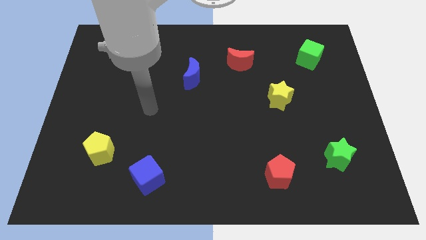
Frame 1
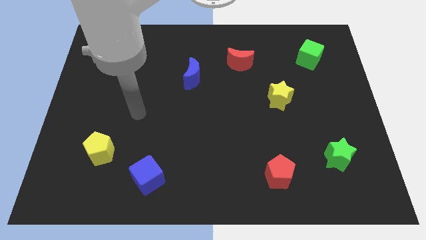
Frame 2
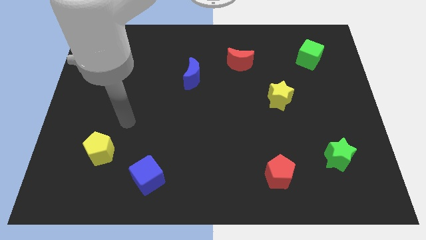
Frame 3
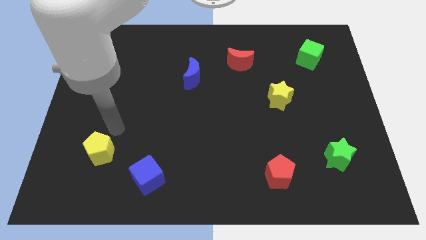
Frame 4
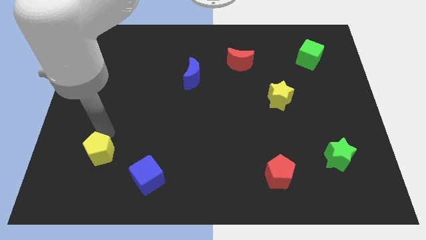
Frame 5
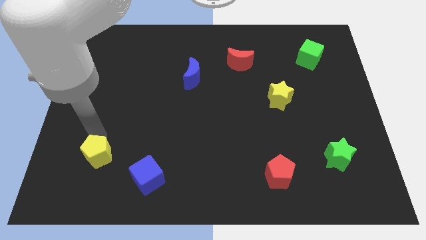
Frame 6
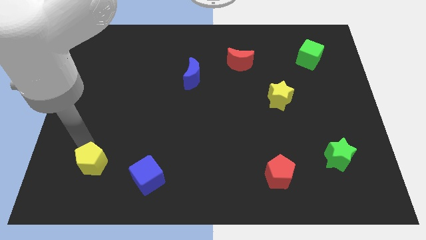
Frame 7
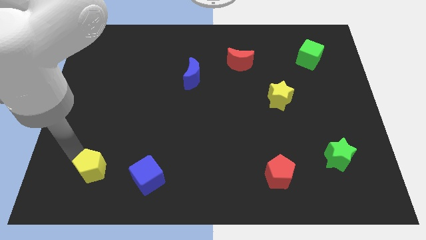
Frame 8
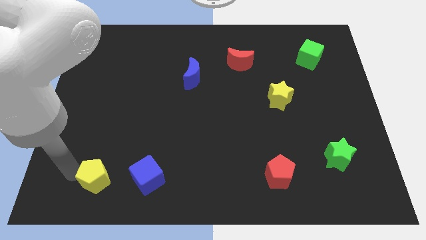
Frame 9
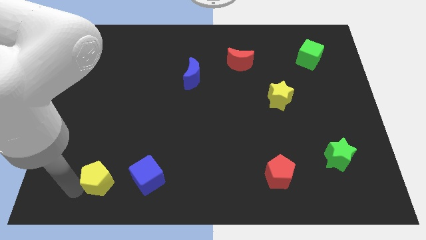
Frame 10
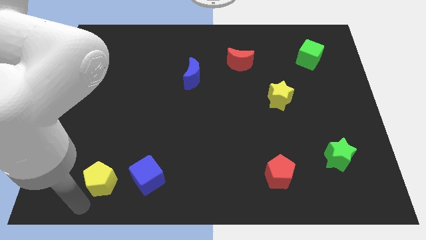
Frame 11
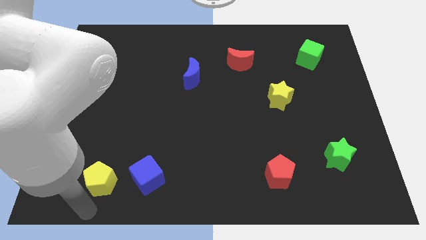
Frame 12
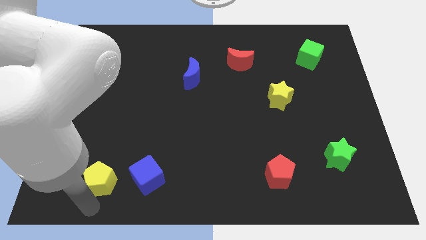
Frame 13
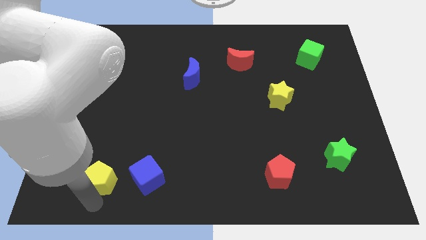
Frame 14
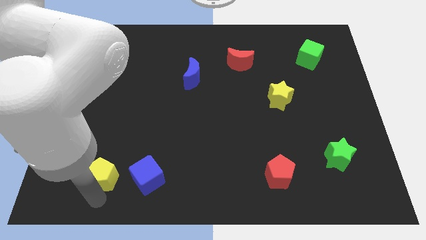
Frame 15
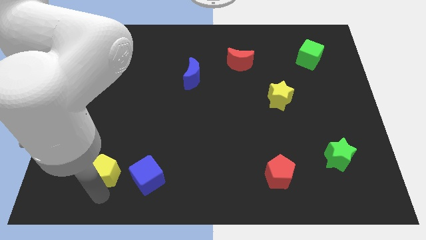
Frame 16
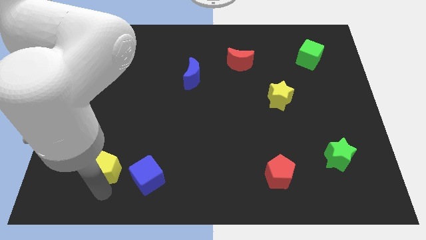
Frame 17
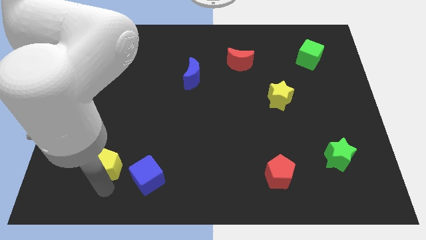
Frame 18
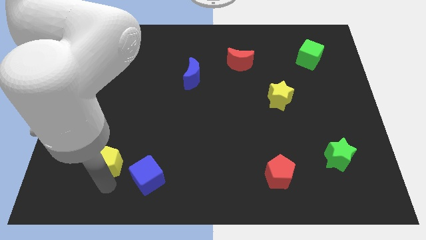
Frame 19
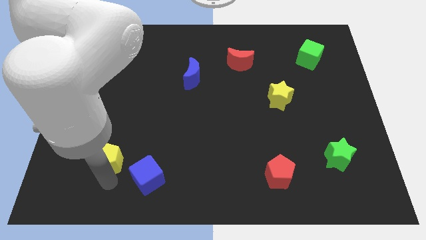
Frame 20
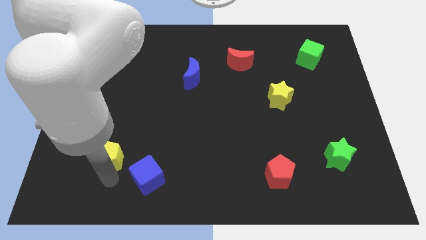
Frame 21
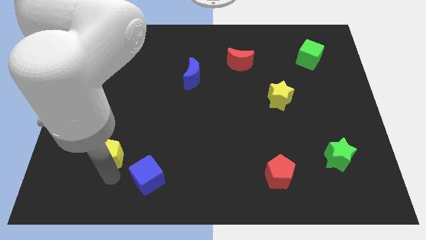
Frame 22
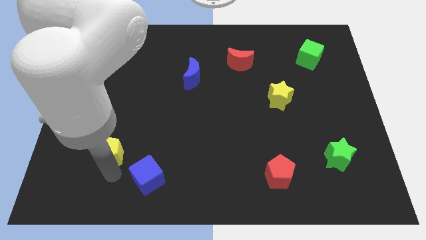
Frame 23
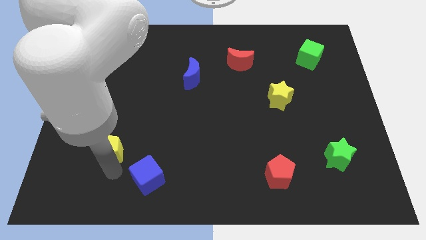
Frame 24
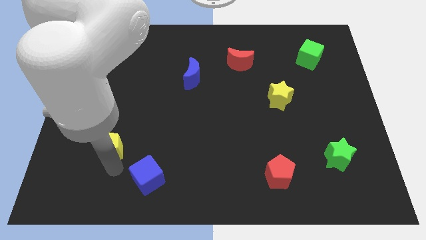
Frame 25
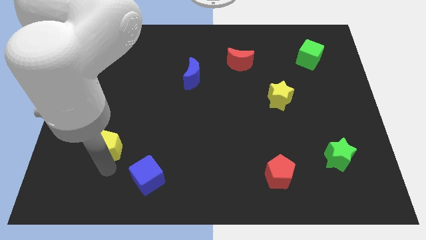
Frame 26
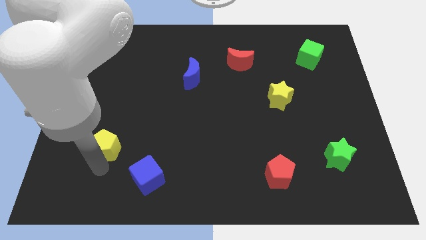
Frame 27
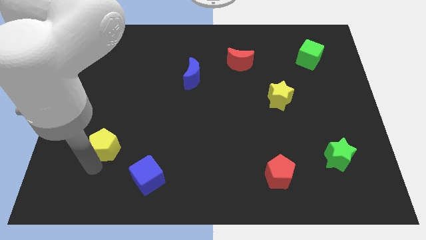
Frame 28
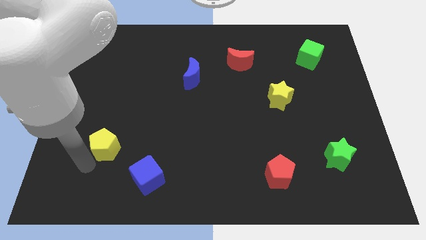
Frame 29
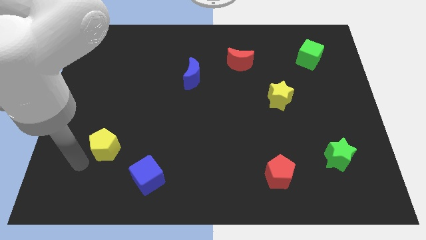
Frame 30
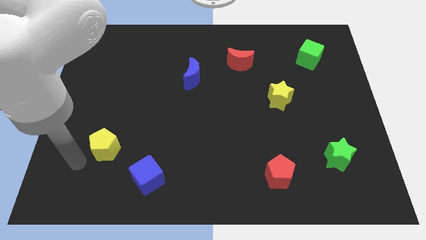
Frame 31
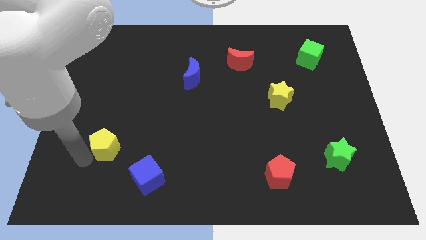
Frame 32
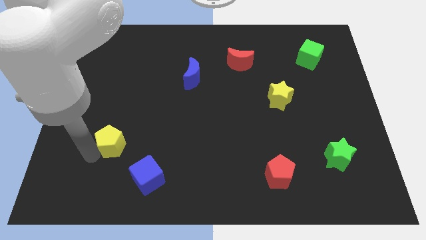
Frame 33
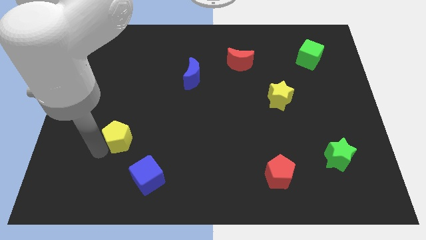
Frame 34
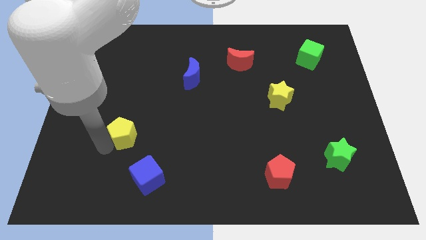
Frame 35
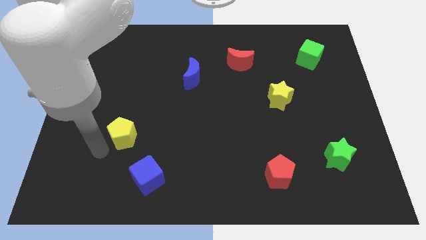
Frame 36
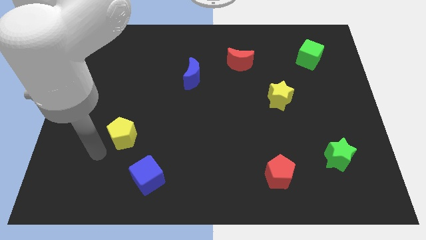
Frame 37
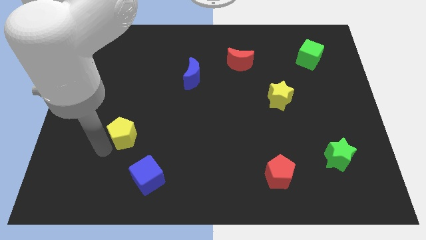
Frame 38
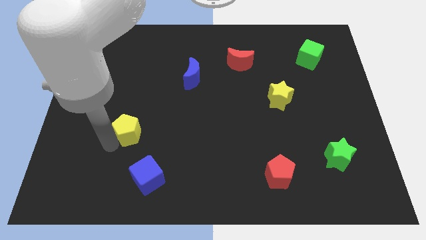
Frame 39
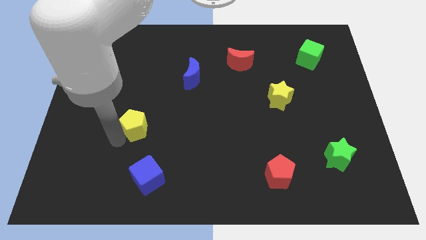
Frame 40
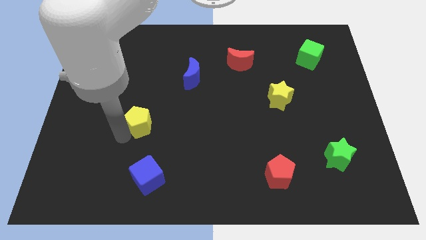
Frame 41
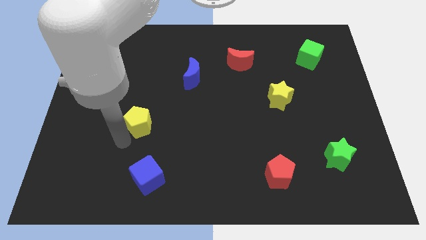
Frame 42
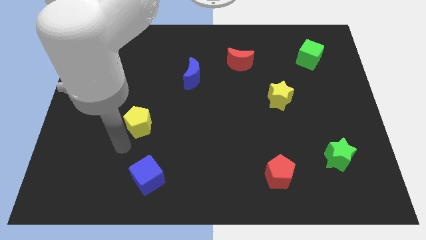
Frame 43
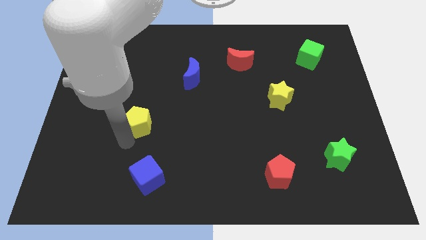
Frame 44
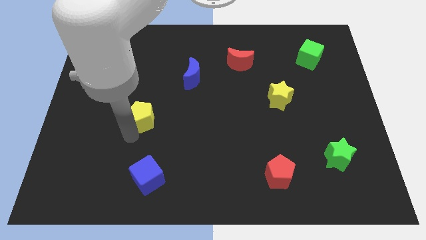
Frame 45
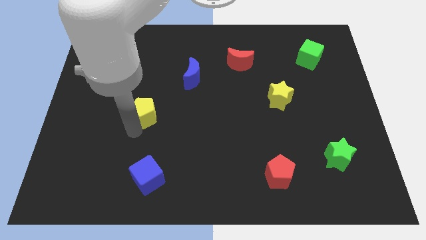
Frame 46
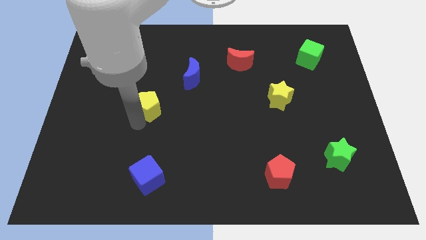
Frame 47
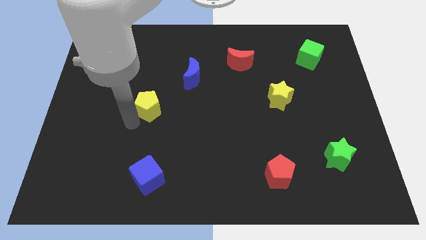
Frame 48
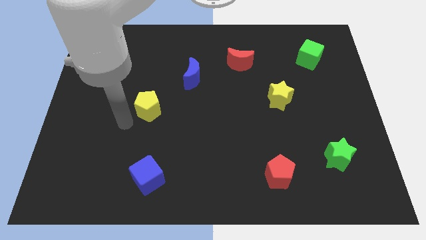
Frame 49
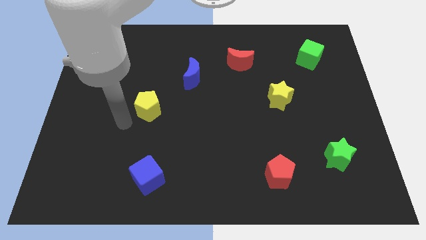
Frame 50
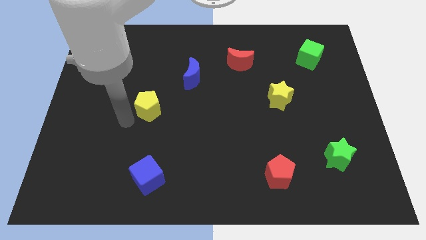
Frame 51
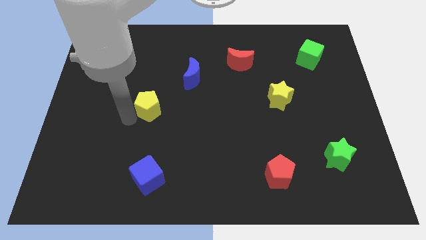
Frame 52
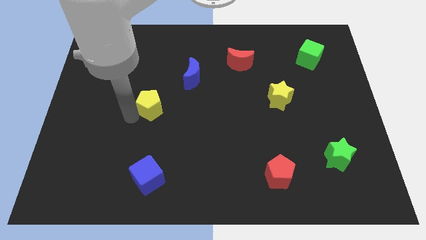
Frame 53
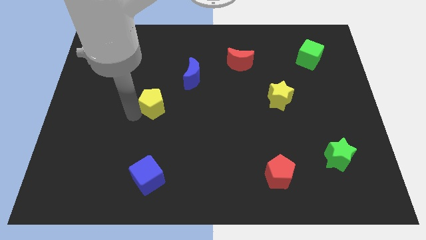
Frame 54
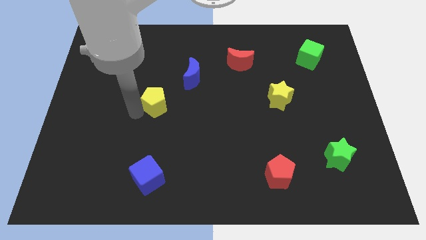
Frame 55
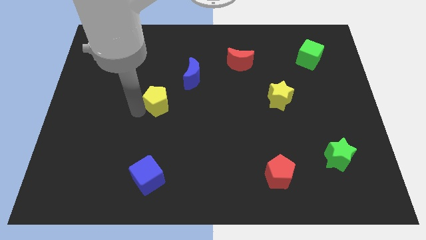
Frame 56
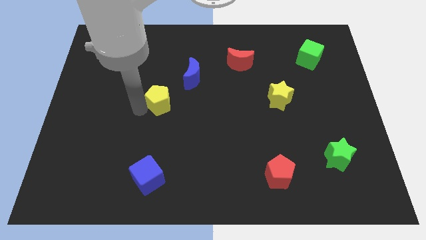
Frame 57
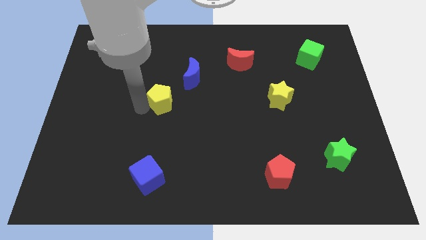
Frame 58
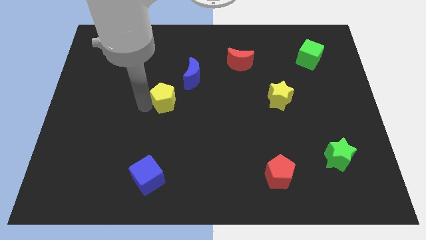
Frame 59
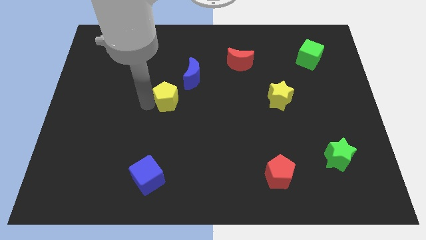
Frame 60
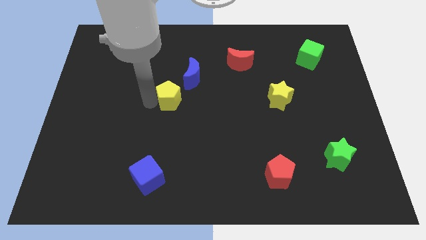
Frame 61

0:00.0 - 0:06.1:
slide the yellow pentagon diagonally up and right

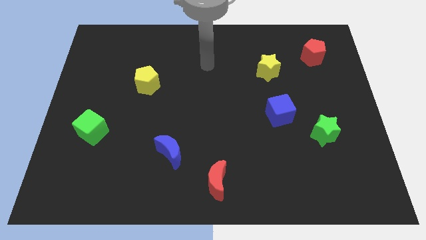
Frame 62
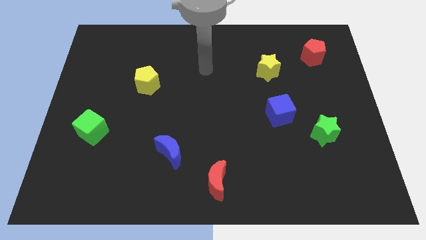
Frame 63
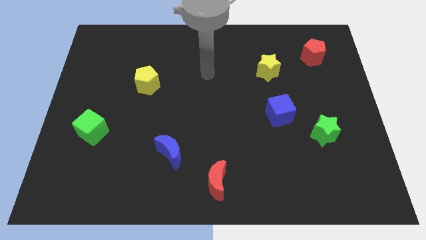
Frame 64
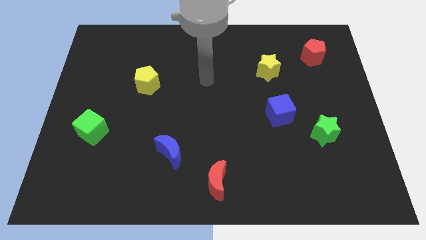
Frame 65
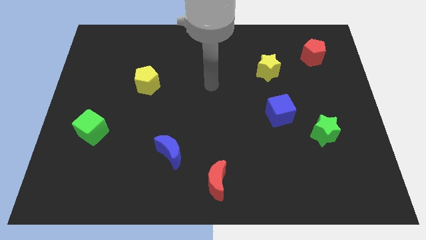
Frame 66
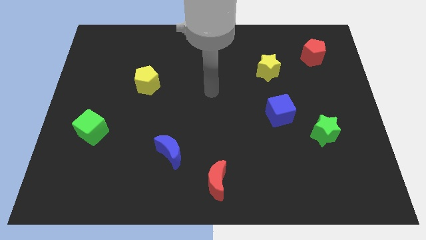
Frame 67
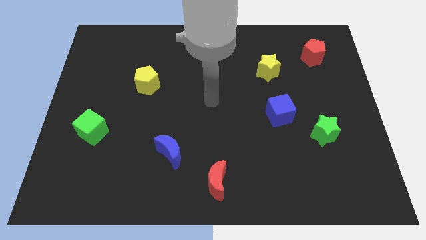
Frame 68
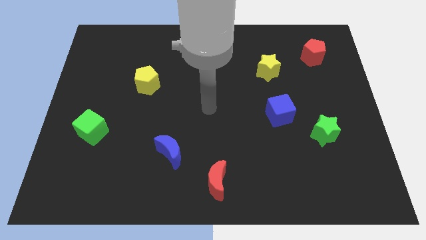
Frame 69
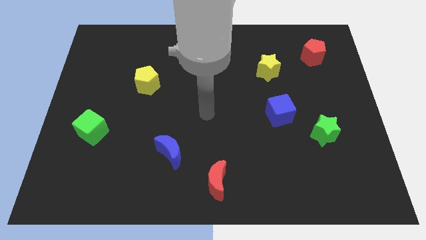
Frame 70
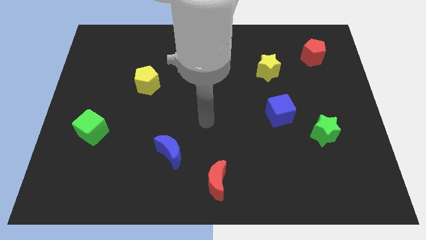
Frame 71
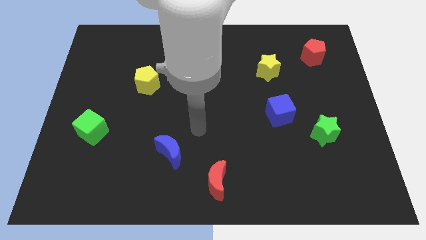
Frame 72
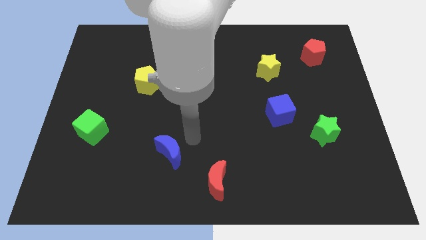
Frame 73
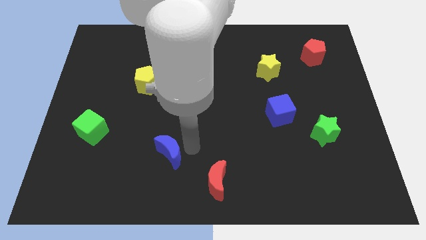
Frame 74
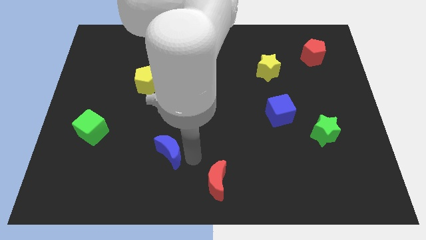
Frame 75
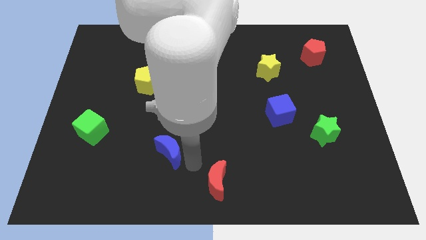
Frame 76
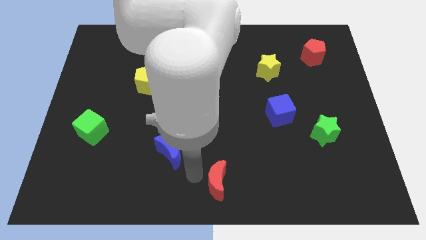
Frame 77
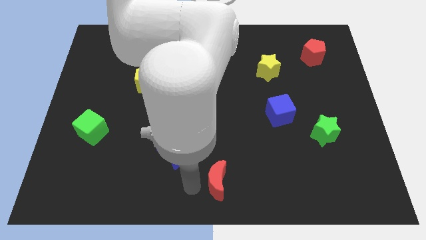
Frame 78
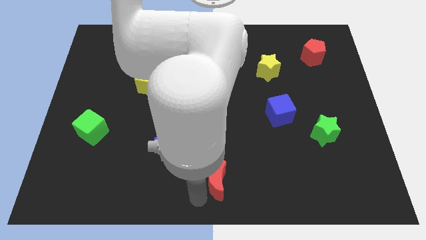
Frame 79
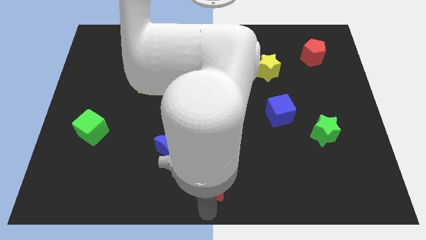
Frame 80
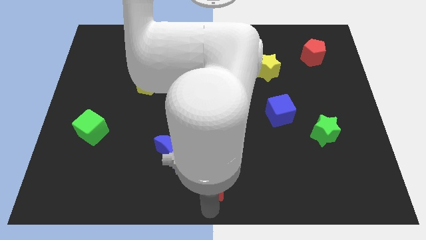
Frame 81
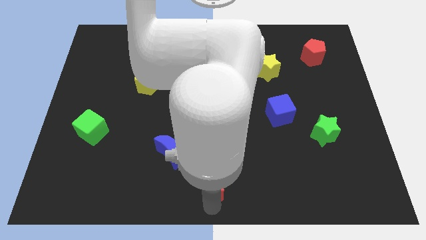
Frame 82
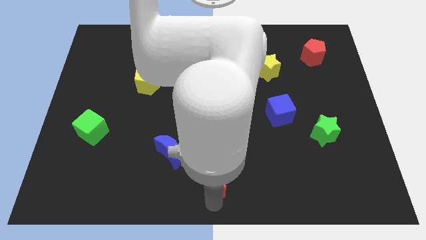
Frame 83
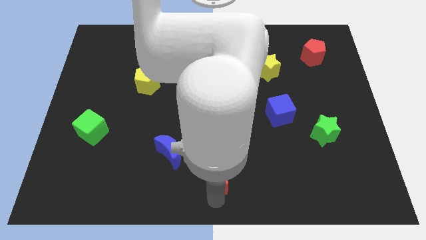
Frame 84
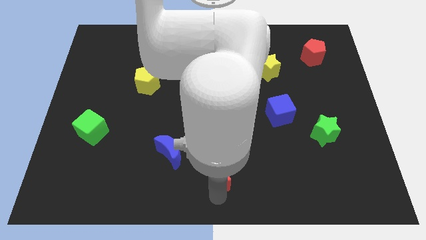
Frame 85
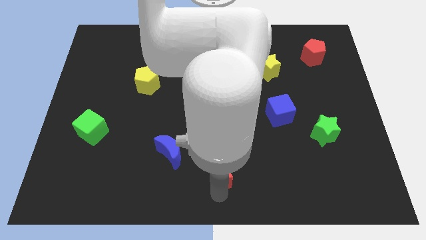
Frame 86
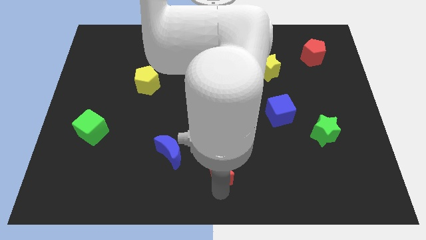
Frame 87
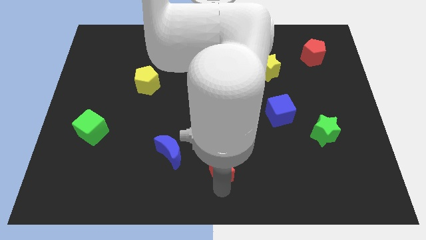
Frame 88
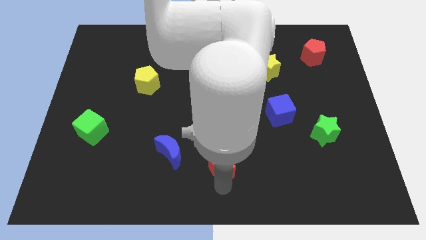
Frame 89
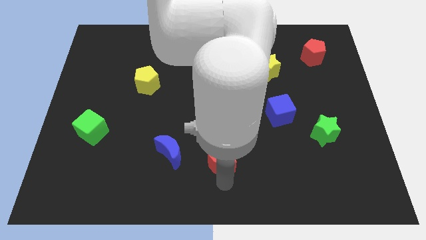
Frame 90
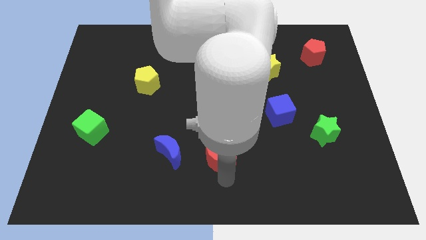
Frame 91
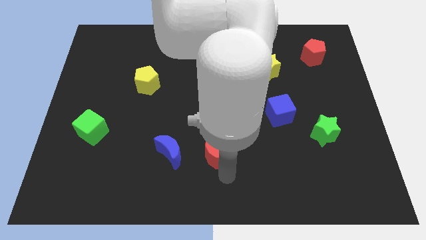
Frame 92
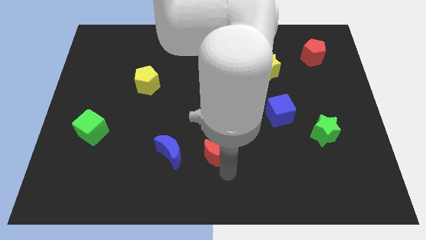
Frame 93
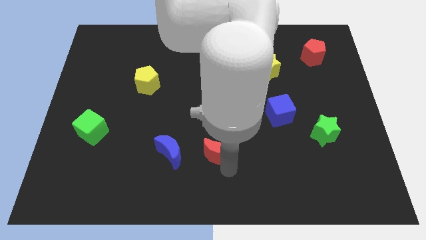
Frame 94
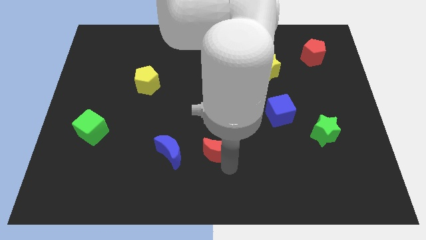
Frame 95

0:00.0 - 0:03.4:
push the red moon up slightly
